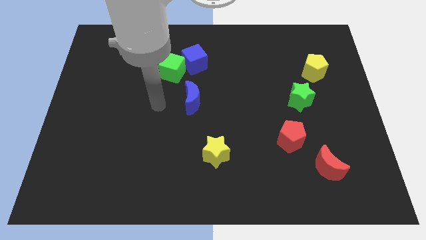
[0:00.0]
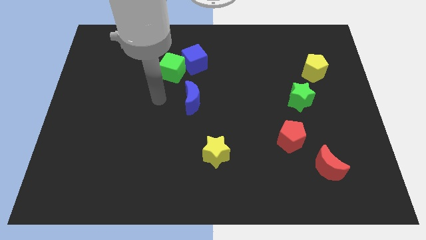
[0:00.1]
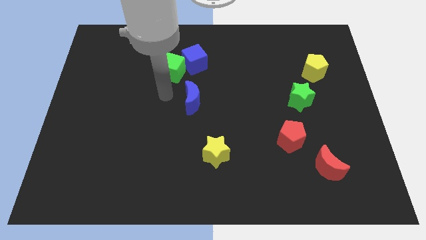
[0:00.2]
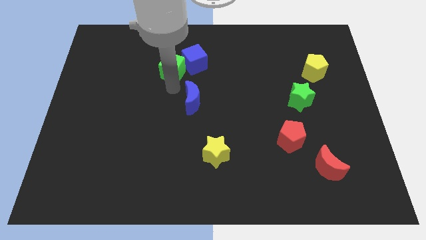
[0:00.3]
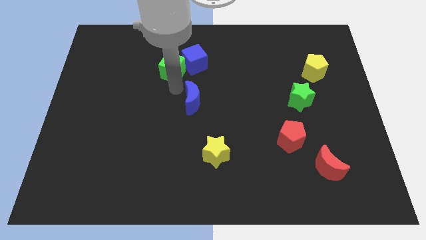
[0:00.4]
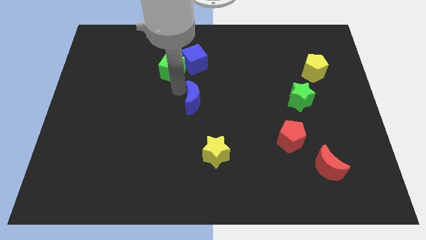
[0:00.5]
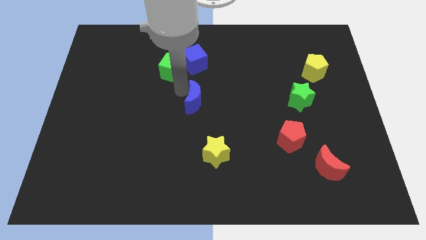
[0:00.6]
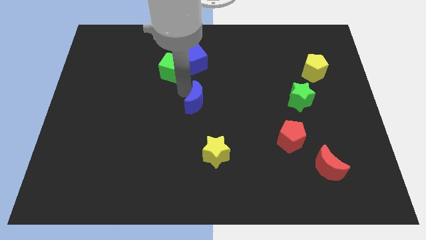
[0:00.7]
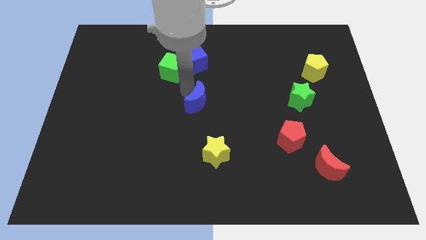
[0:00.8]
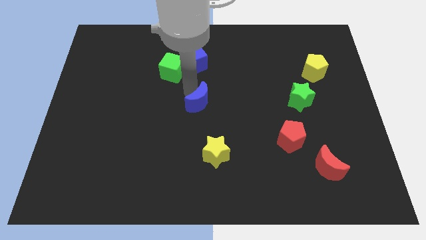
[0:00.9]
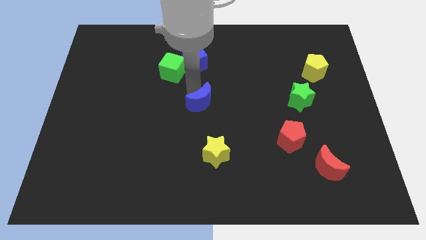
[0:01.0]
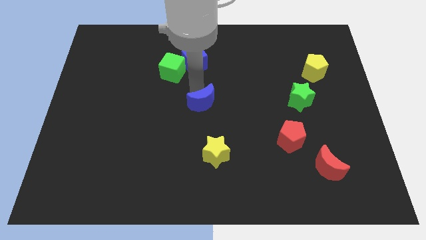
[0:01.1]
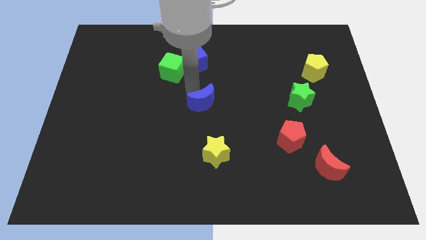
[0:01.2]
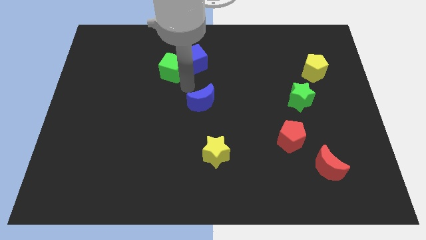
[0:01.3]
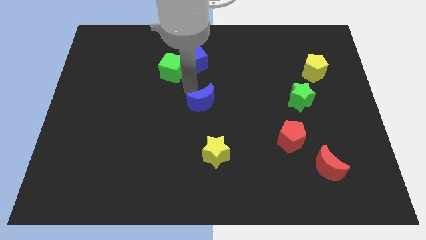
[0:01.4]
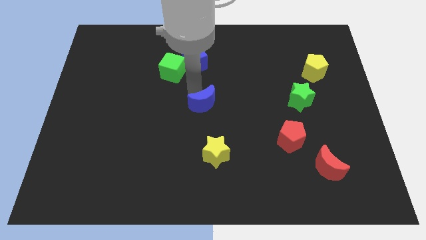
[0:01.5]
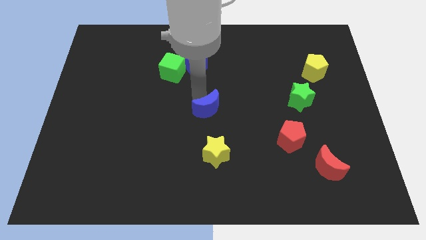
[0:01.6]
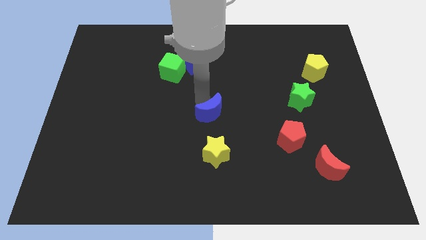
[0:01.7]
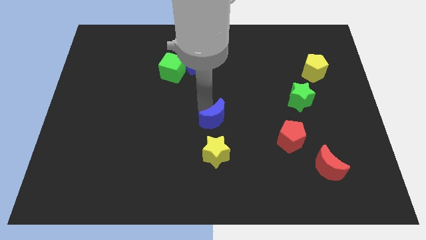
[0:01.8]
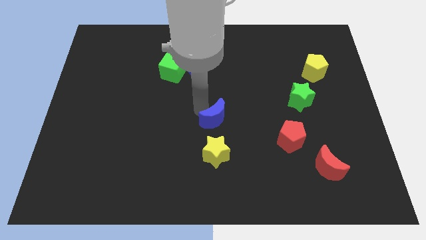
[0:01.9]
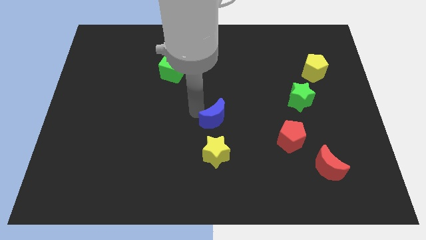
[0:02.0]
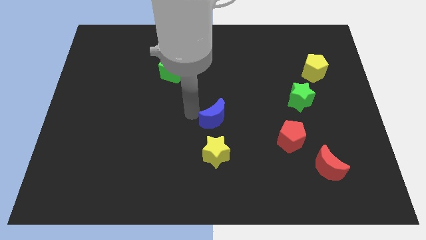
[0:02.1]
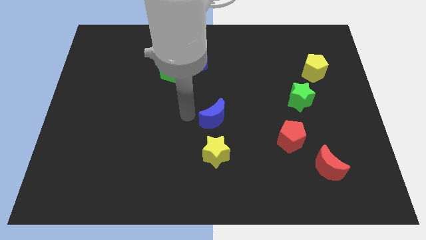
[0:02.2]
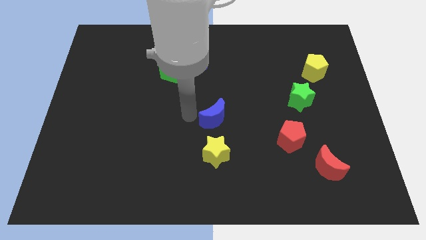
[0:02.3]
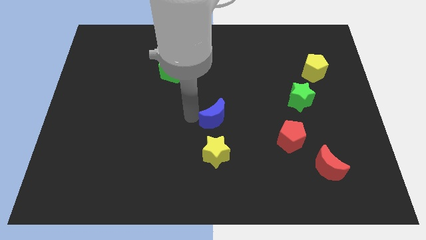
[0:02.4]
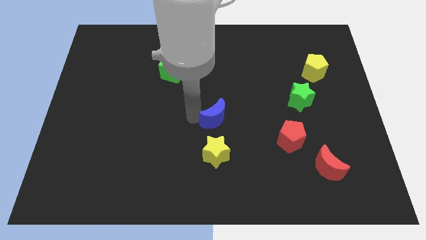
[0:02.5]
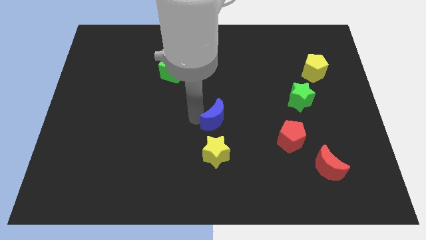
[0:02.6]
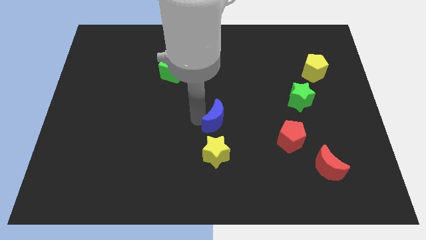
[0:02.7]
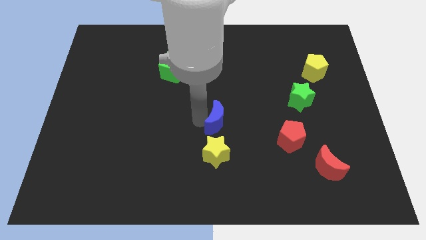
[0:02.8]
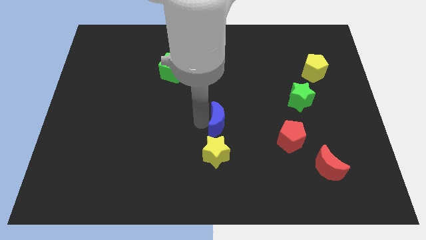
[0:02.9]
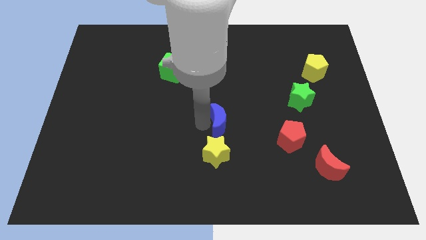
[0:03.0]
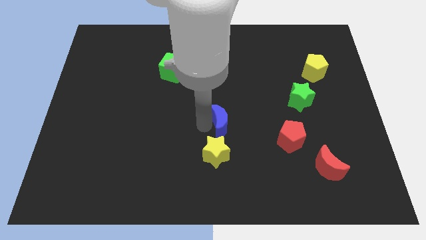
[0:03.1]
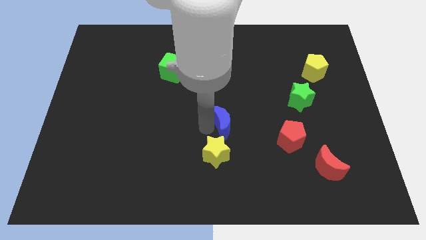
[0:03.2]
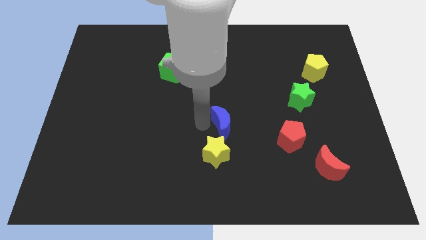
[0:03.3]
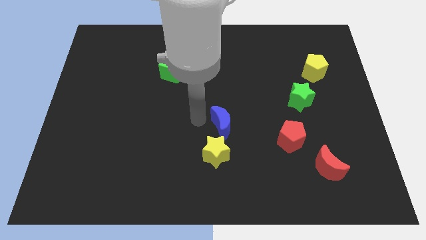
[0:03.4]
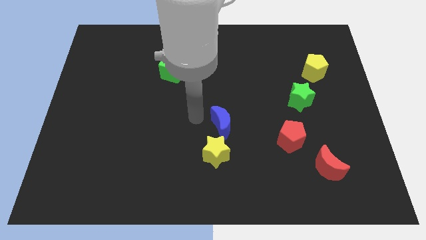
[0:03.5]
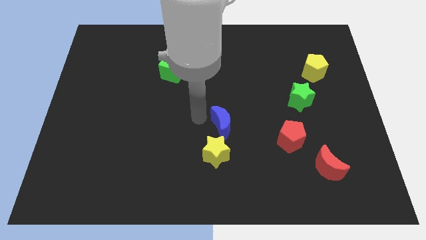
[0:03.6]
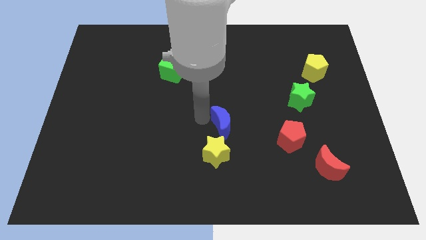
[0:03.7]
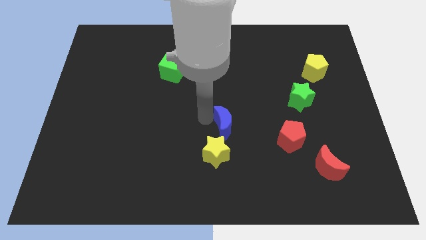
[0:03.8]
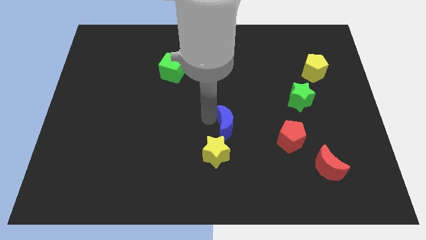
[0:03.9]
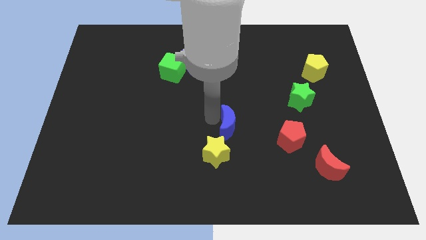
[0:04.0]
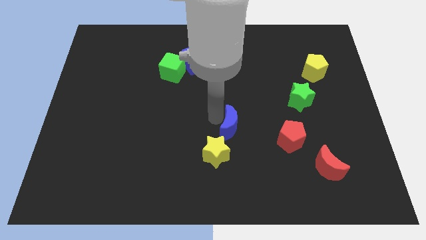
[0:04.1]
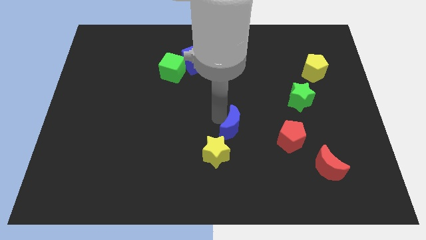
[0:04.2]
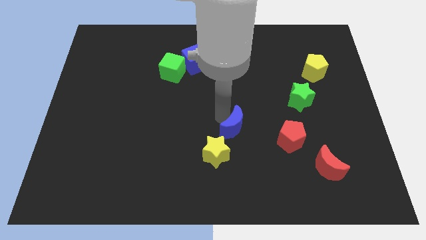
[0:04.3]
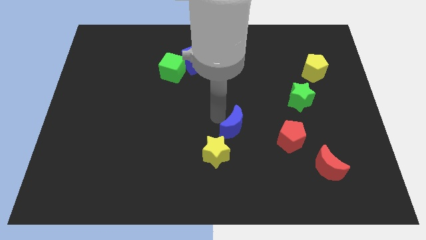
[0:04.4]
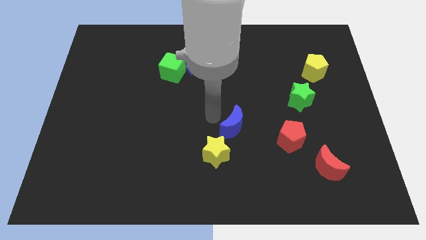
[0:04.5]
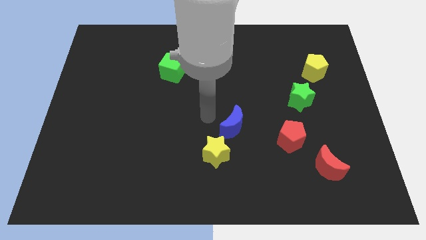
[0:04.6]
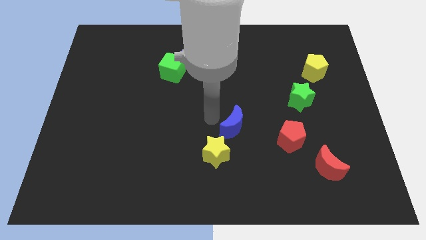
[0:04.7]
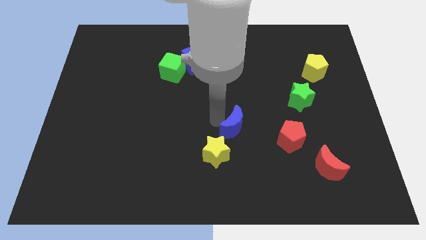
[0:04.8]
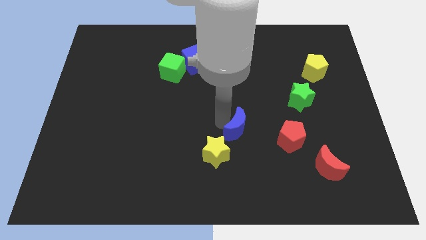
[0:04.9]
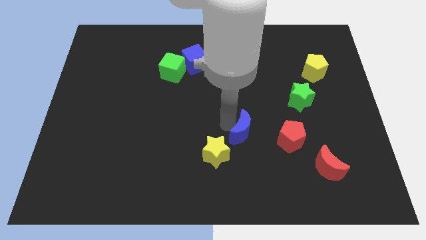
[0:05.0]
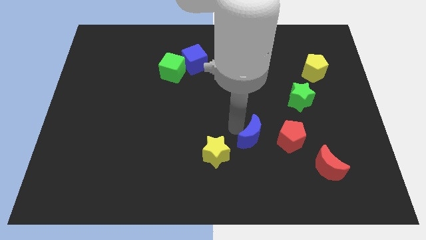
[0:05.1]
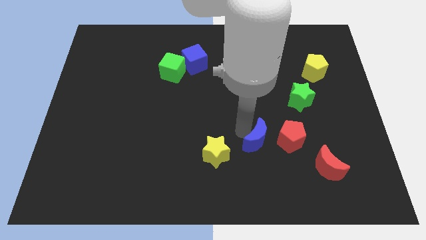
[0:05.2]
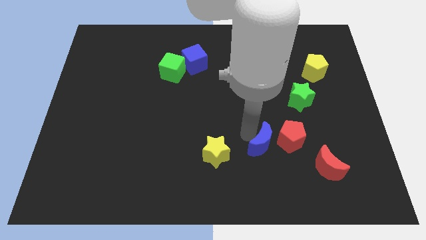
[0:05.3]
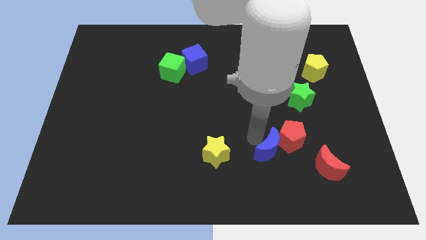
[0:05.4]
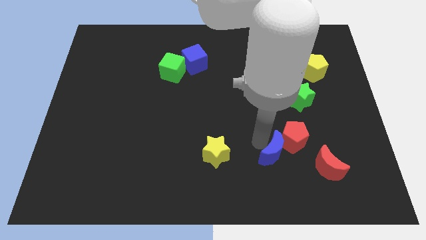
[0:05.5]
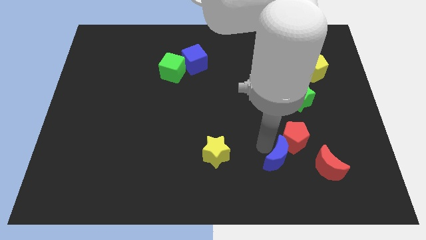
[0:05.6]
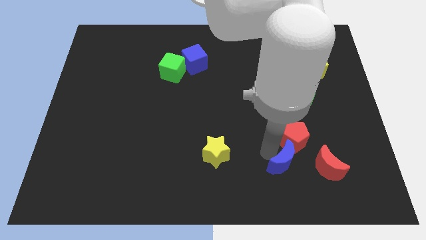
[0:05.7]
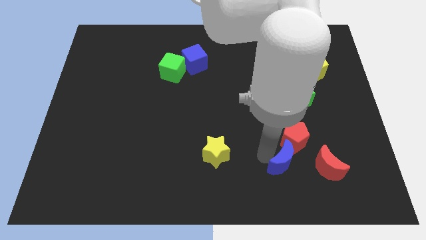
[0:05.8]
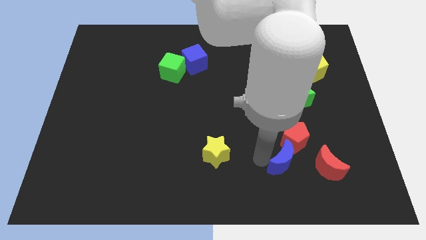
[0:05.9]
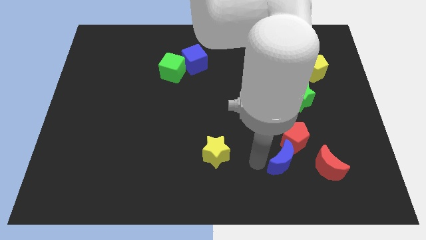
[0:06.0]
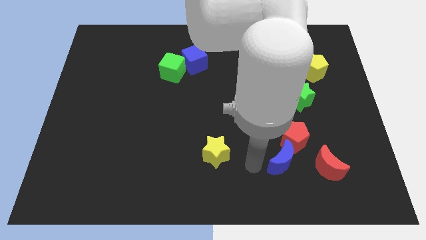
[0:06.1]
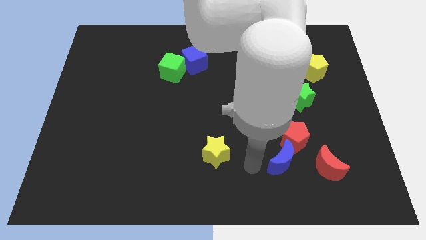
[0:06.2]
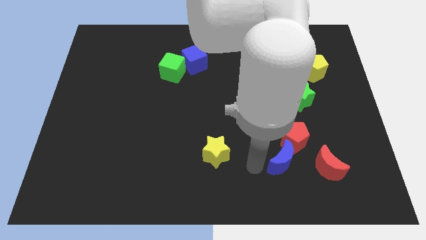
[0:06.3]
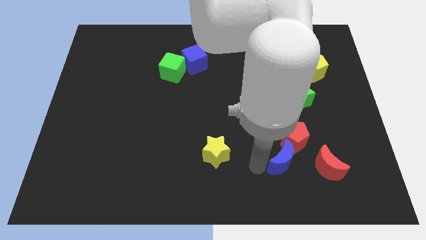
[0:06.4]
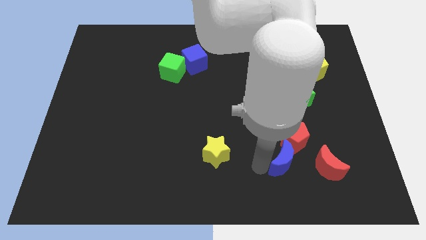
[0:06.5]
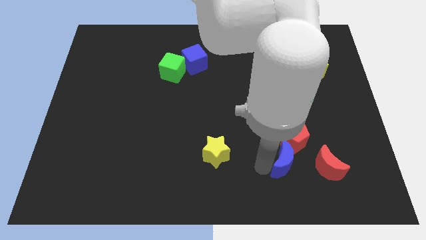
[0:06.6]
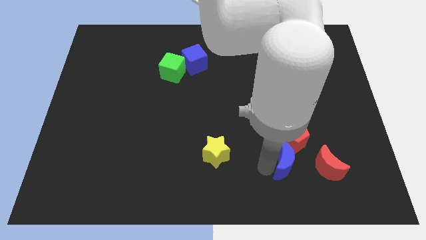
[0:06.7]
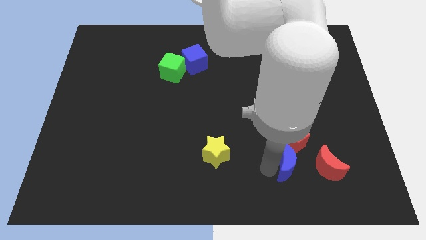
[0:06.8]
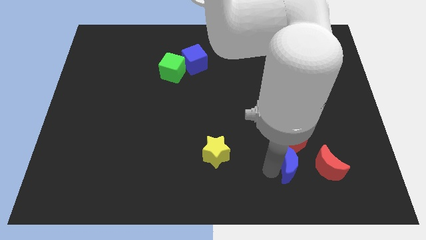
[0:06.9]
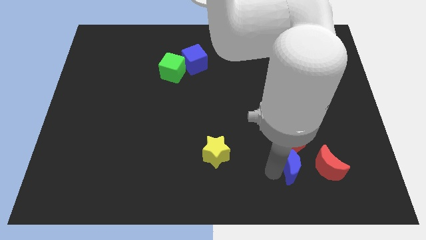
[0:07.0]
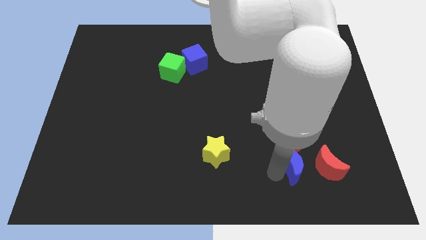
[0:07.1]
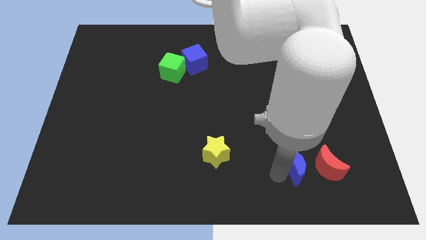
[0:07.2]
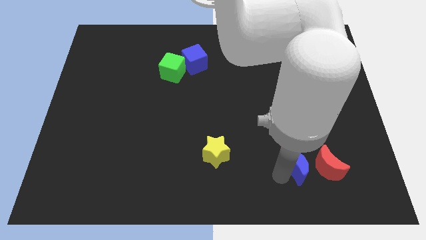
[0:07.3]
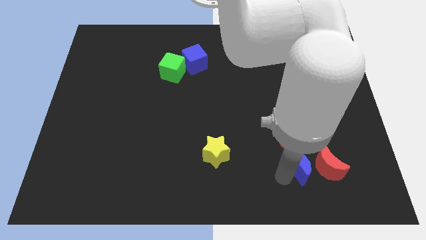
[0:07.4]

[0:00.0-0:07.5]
slide the blue moon next to the red moon
